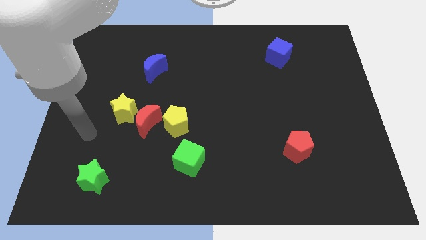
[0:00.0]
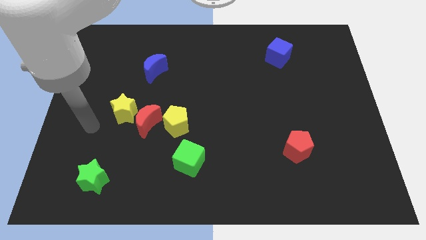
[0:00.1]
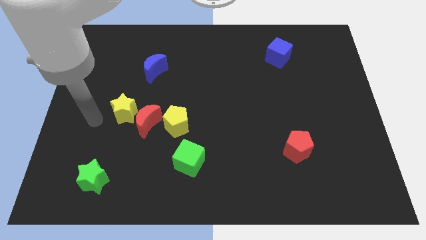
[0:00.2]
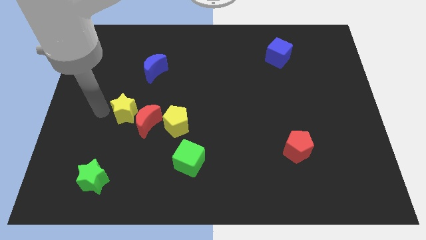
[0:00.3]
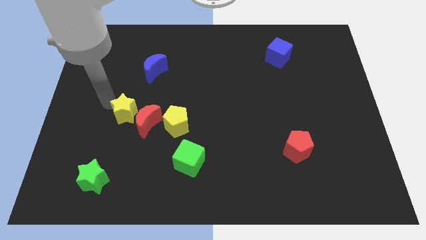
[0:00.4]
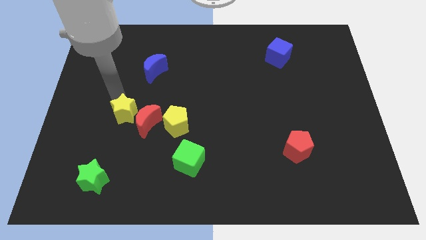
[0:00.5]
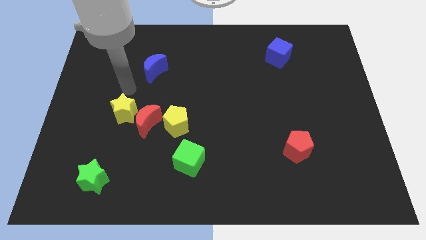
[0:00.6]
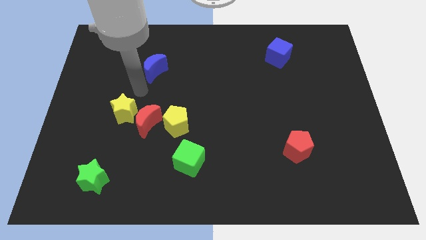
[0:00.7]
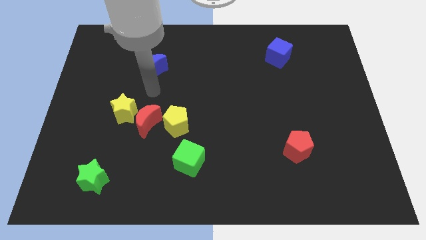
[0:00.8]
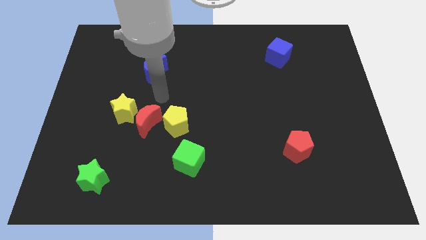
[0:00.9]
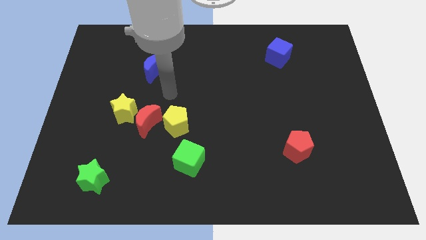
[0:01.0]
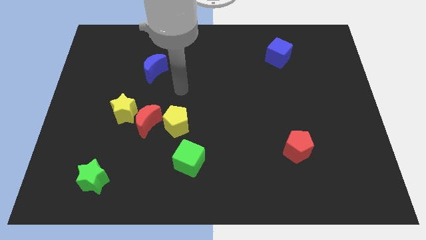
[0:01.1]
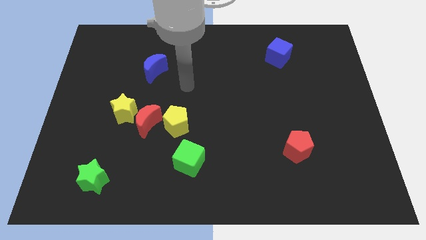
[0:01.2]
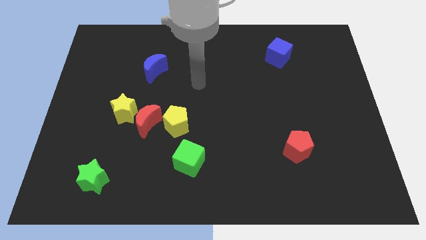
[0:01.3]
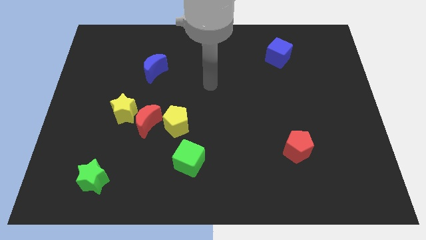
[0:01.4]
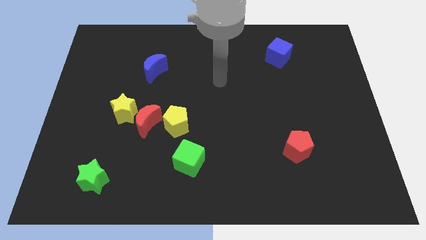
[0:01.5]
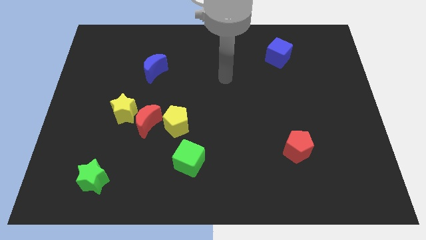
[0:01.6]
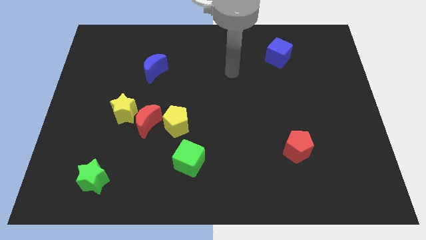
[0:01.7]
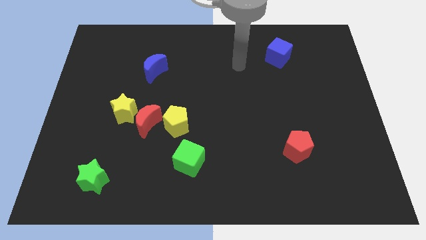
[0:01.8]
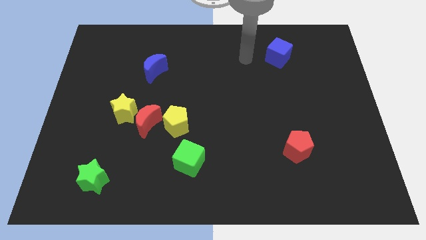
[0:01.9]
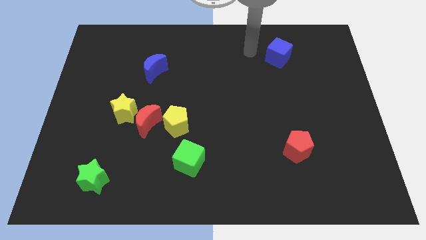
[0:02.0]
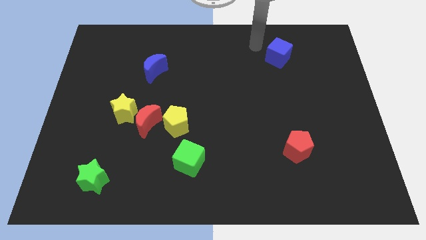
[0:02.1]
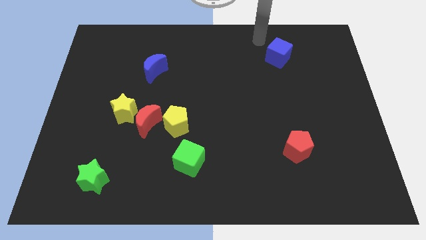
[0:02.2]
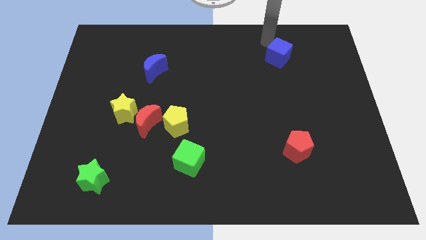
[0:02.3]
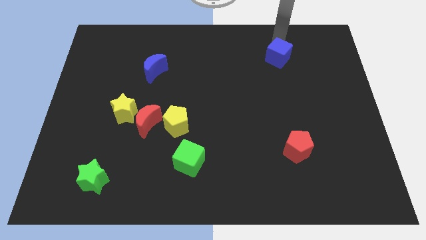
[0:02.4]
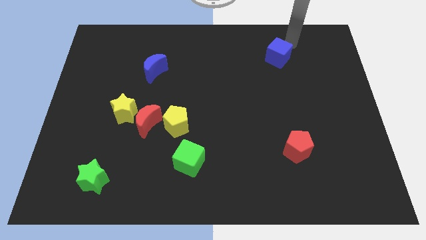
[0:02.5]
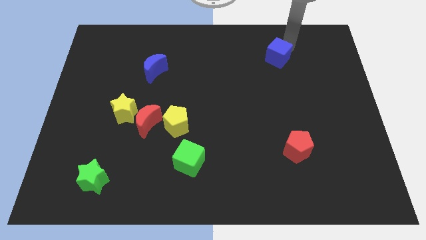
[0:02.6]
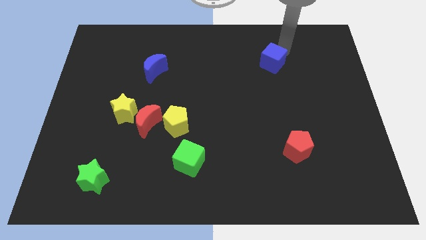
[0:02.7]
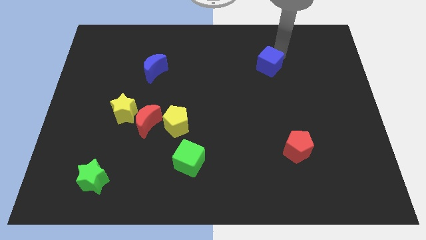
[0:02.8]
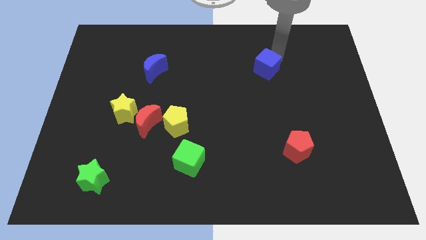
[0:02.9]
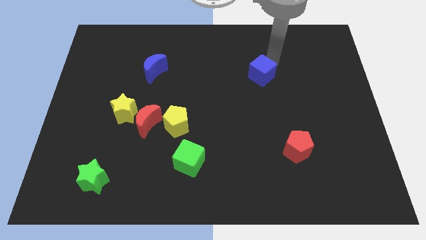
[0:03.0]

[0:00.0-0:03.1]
slightly push the blue cube downwards and to the left diagonally

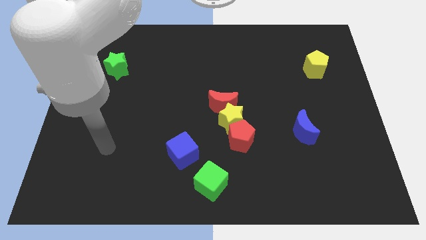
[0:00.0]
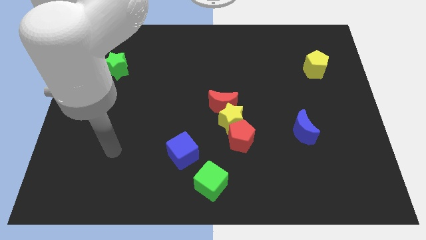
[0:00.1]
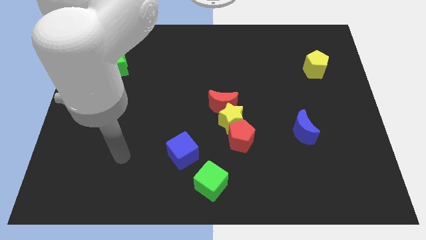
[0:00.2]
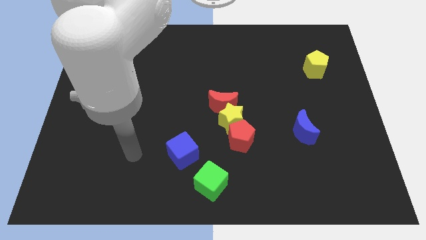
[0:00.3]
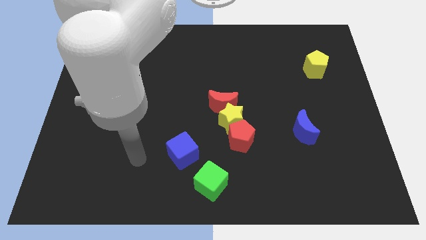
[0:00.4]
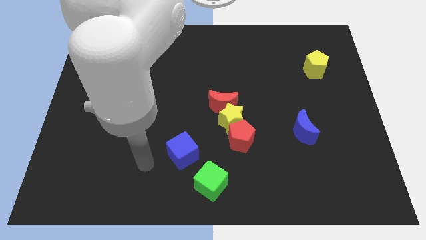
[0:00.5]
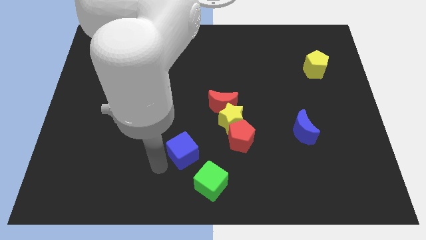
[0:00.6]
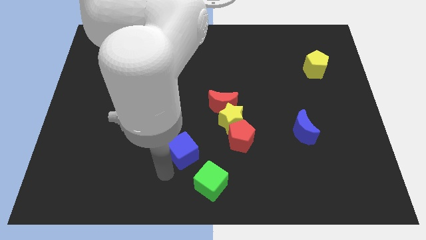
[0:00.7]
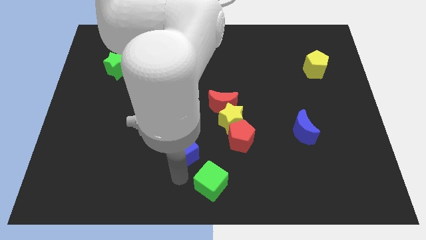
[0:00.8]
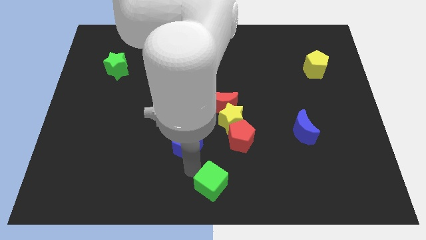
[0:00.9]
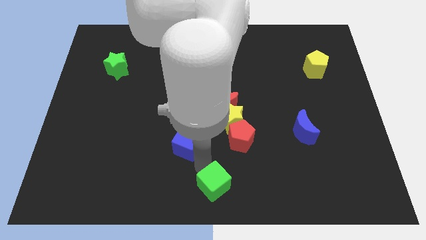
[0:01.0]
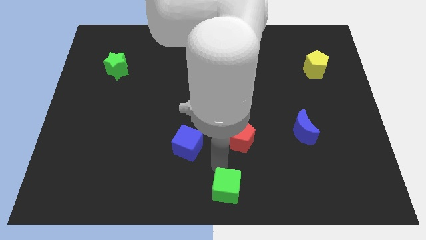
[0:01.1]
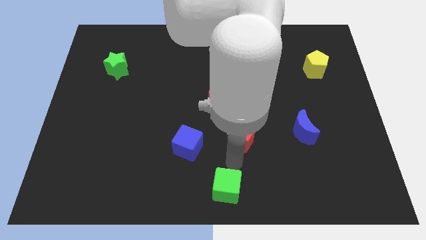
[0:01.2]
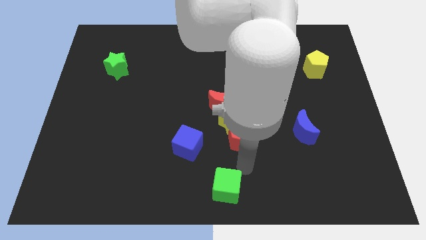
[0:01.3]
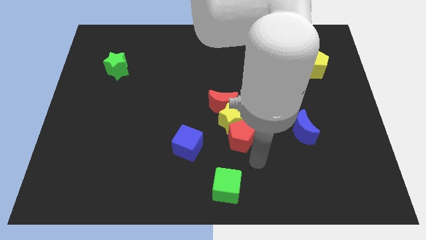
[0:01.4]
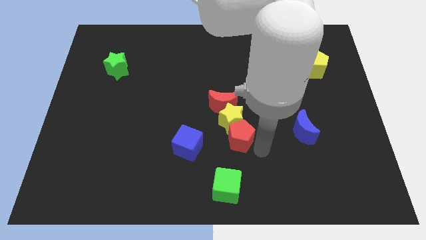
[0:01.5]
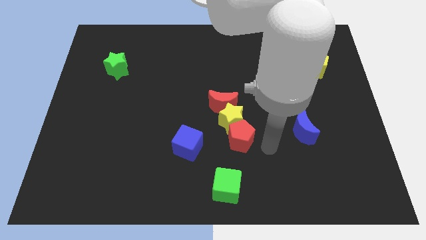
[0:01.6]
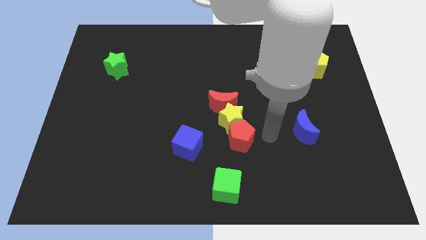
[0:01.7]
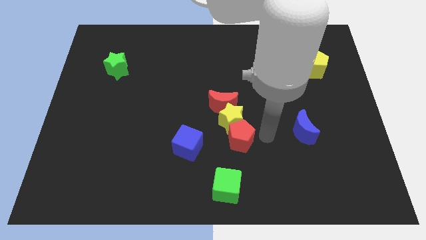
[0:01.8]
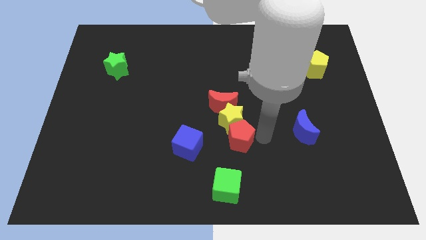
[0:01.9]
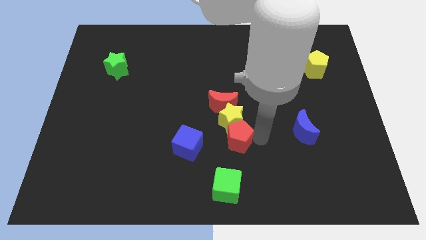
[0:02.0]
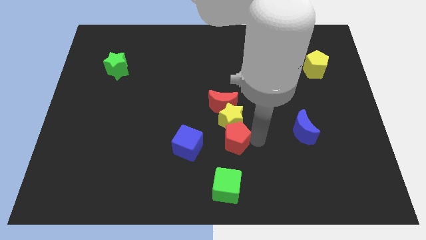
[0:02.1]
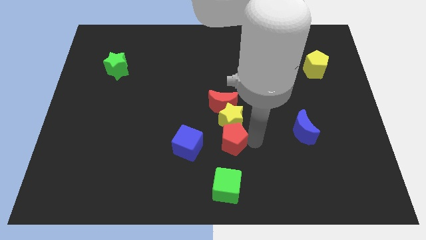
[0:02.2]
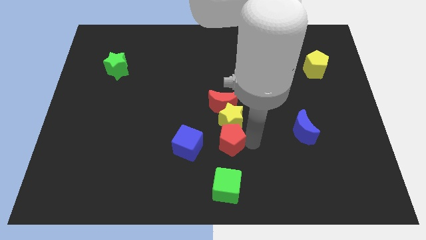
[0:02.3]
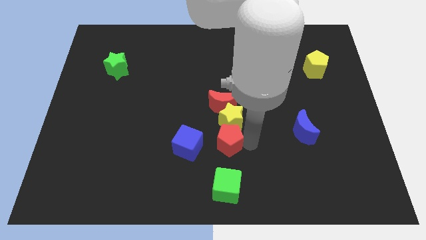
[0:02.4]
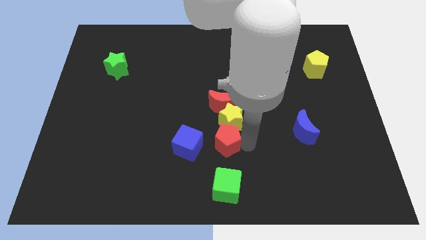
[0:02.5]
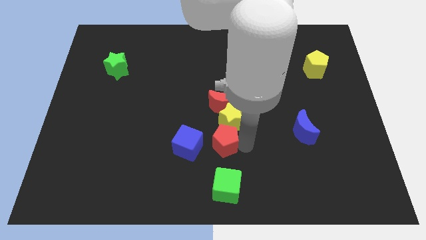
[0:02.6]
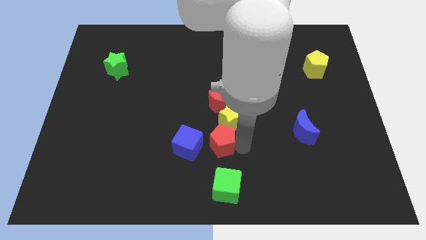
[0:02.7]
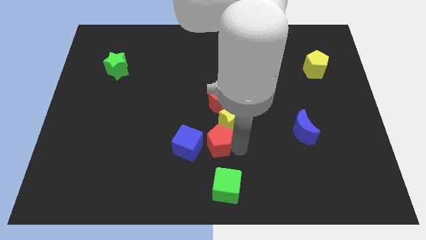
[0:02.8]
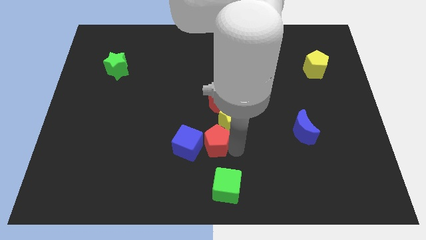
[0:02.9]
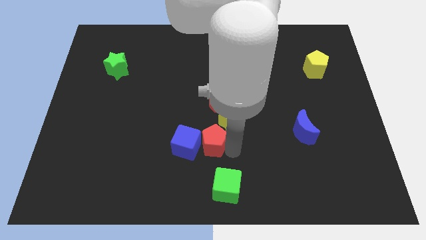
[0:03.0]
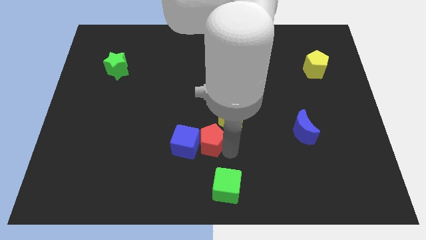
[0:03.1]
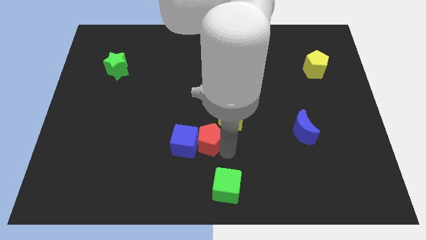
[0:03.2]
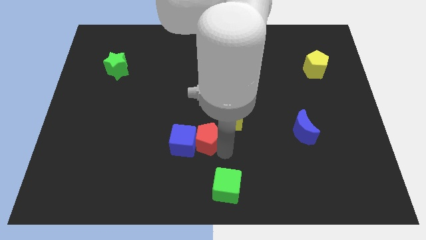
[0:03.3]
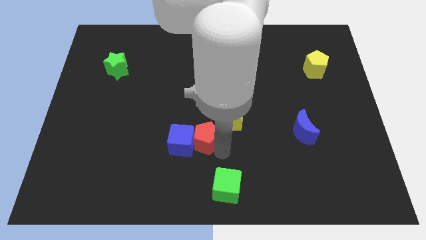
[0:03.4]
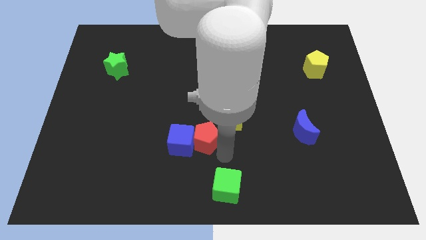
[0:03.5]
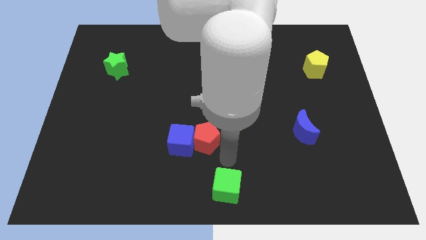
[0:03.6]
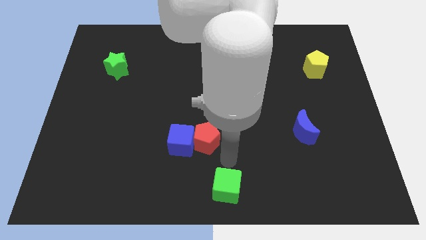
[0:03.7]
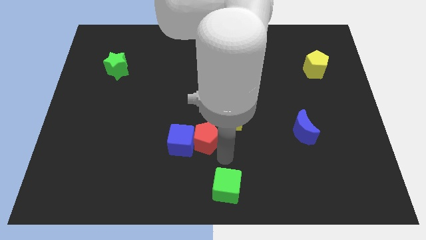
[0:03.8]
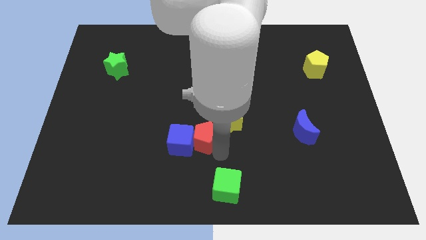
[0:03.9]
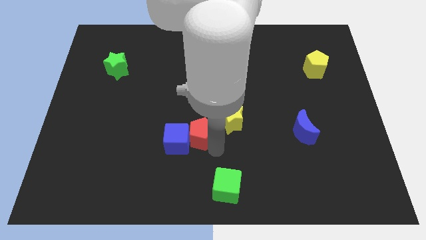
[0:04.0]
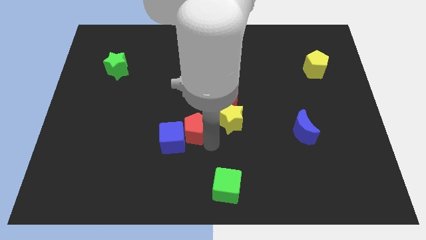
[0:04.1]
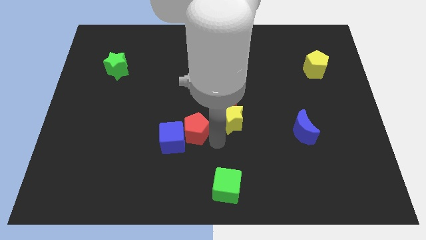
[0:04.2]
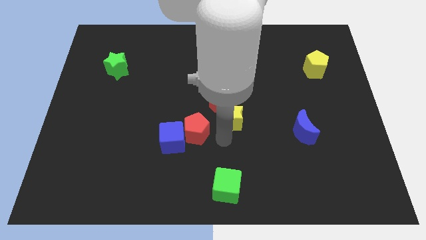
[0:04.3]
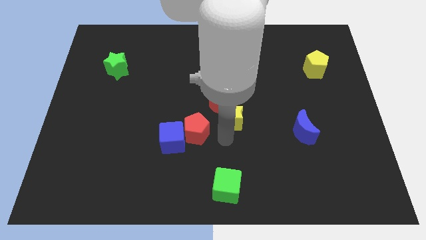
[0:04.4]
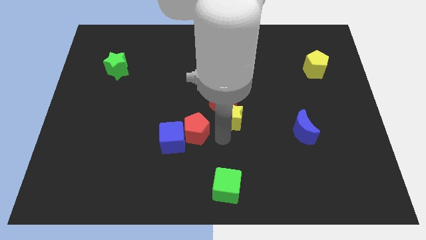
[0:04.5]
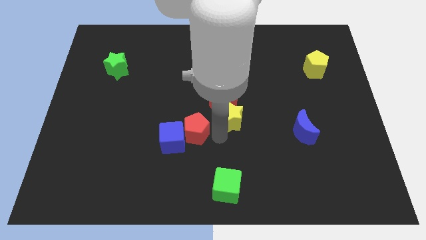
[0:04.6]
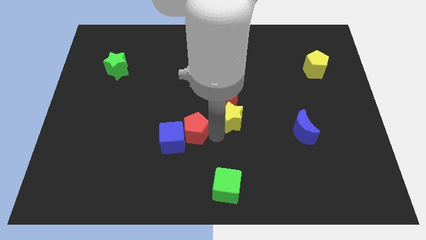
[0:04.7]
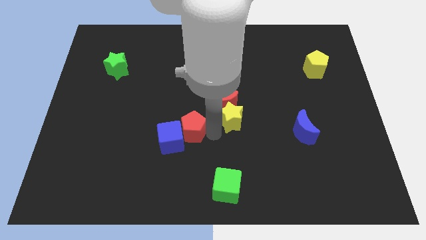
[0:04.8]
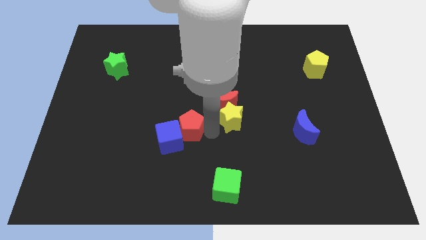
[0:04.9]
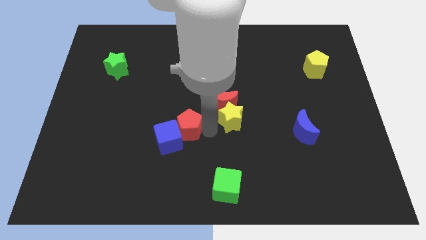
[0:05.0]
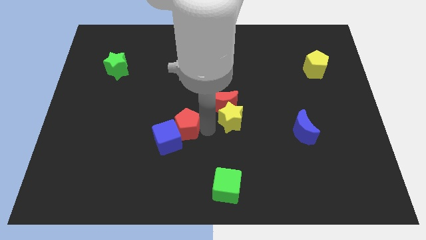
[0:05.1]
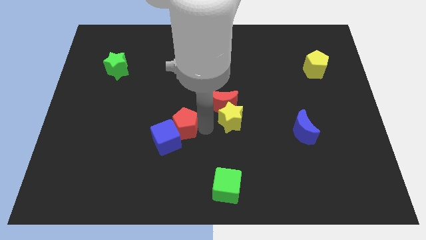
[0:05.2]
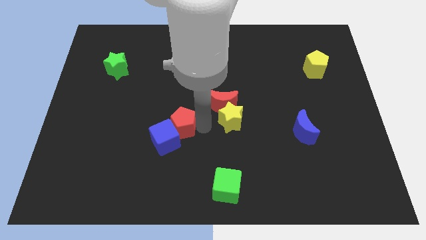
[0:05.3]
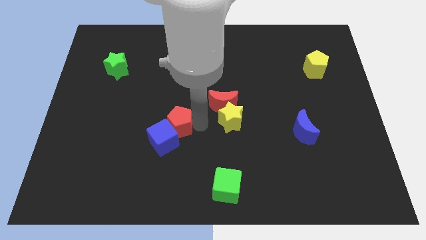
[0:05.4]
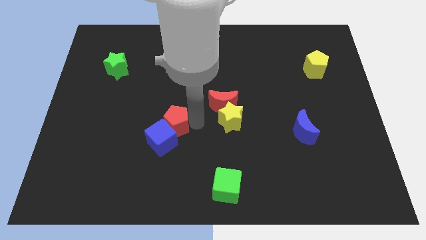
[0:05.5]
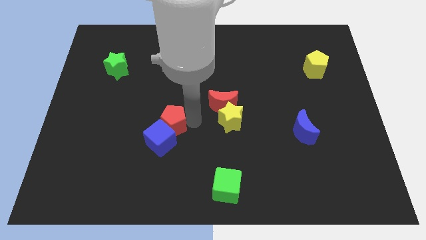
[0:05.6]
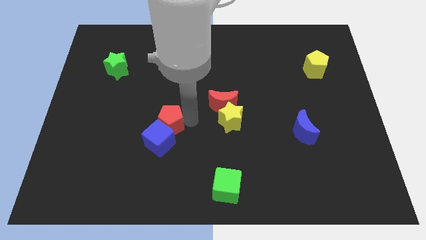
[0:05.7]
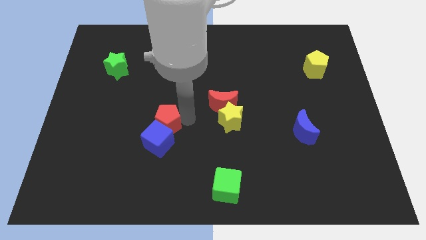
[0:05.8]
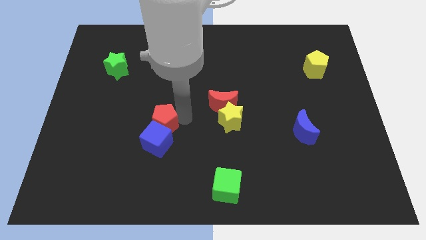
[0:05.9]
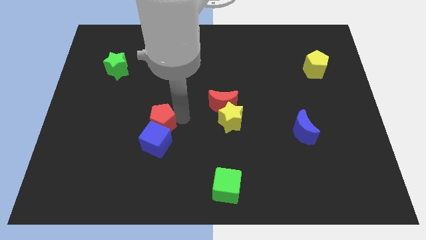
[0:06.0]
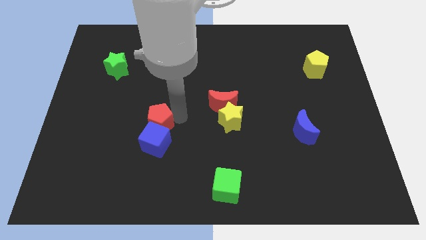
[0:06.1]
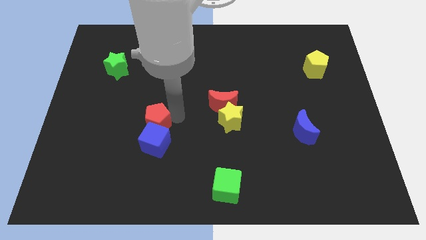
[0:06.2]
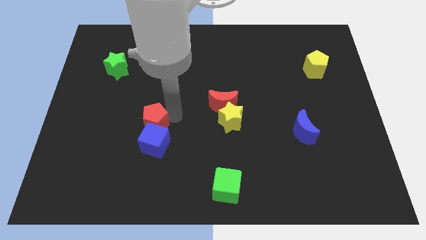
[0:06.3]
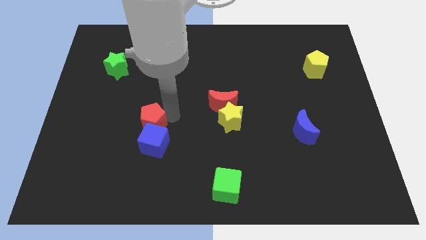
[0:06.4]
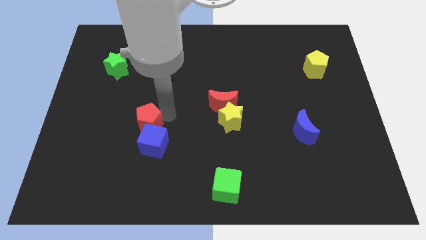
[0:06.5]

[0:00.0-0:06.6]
slide the red pentagon left
